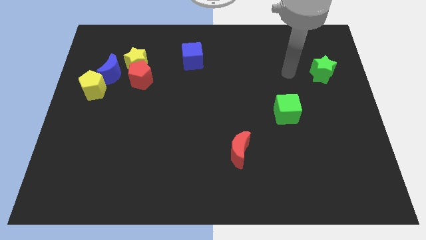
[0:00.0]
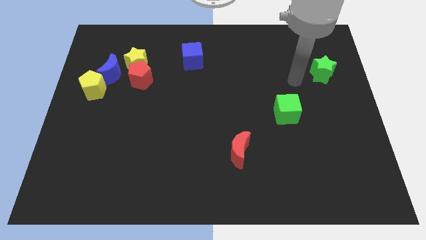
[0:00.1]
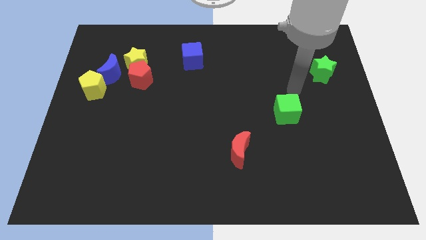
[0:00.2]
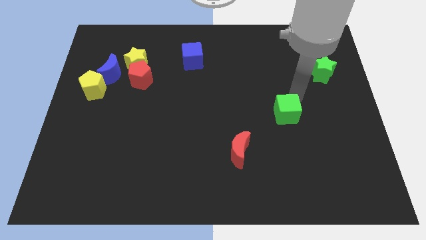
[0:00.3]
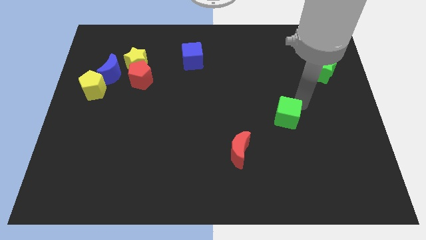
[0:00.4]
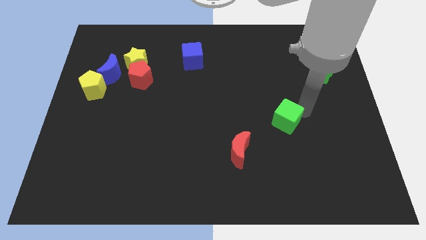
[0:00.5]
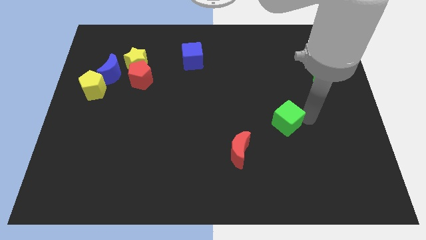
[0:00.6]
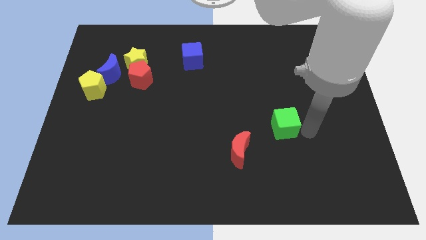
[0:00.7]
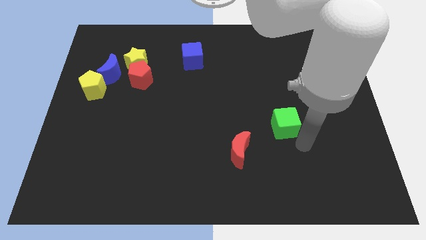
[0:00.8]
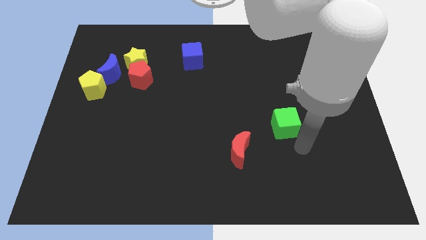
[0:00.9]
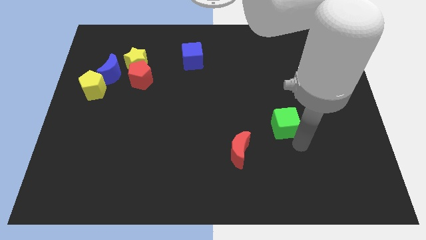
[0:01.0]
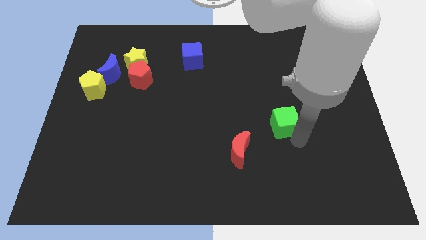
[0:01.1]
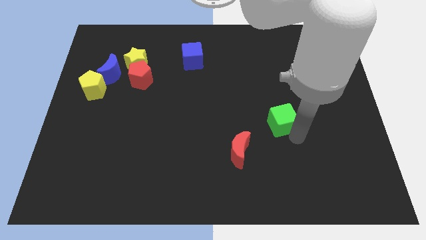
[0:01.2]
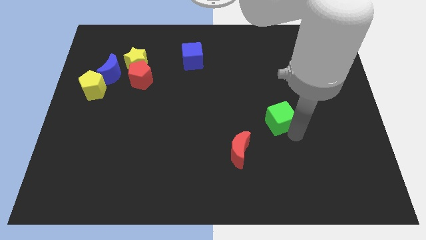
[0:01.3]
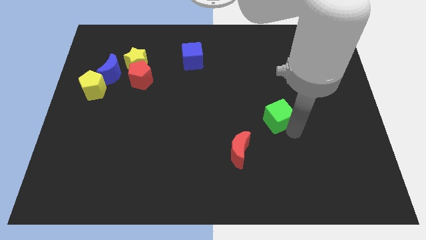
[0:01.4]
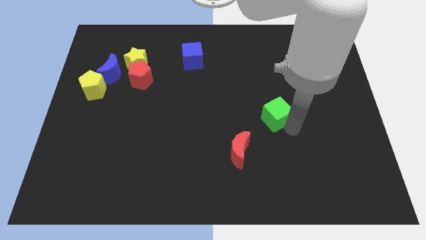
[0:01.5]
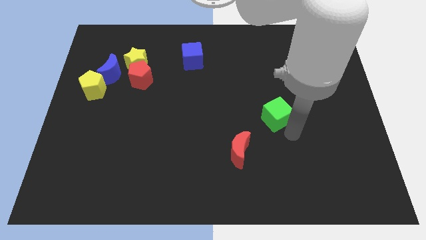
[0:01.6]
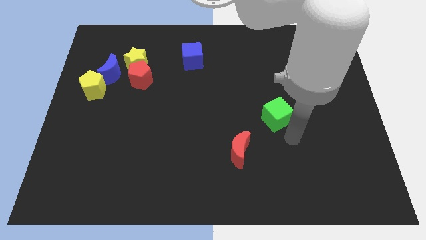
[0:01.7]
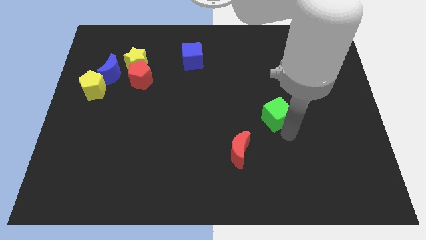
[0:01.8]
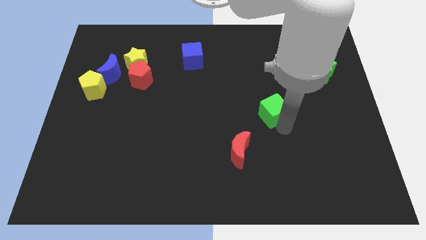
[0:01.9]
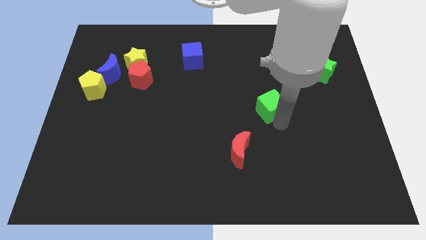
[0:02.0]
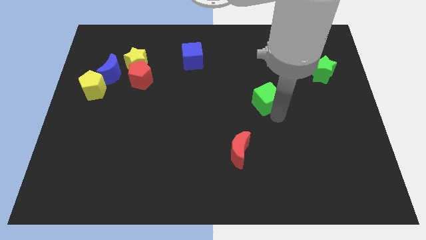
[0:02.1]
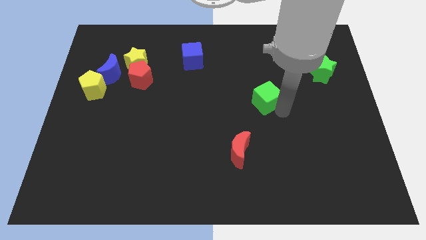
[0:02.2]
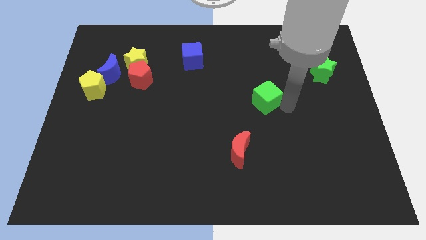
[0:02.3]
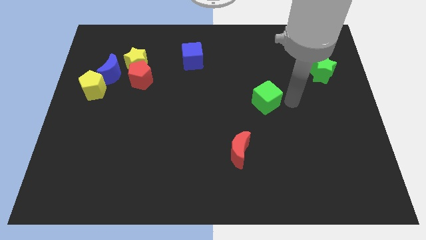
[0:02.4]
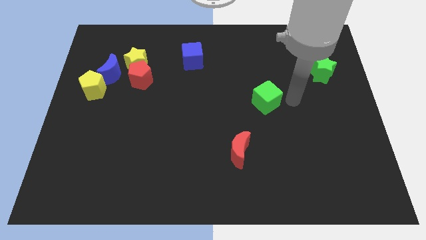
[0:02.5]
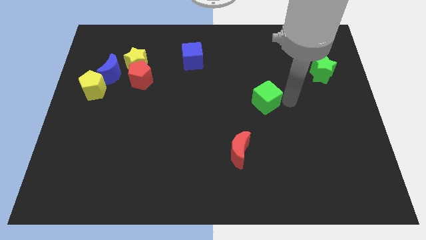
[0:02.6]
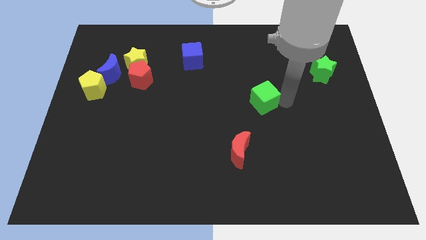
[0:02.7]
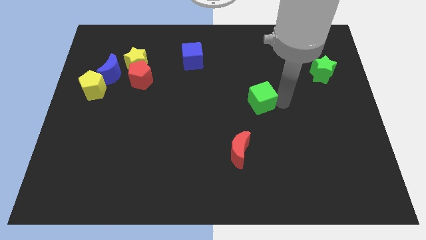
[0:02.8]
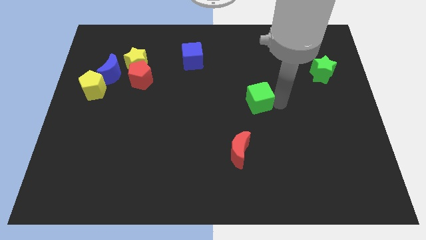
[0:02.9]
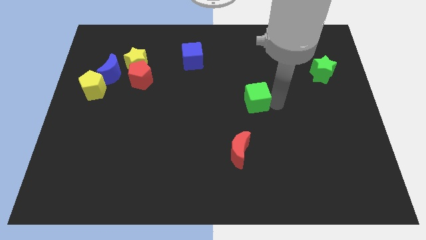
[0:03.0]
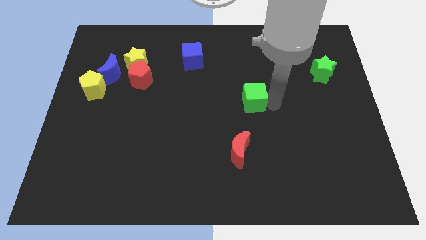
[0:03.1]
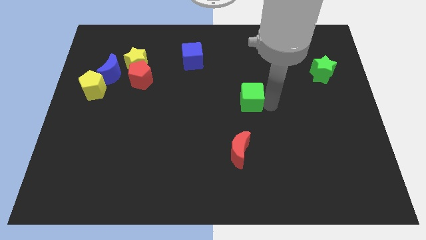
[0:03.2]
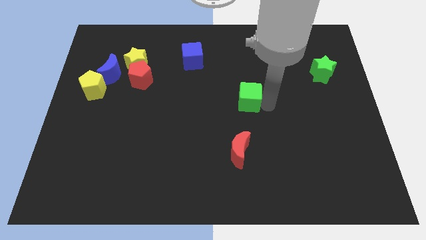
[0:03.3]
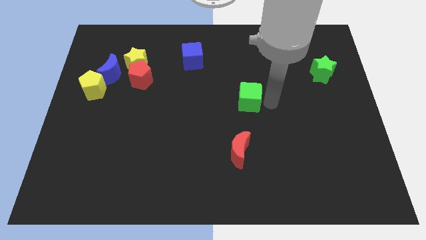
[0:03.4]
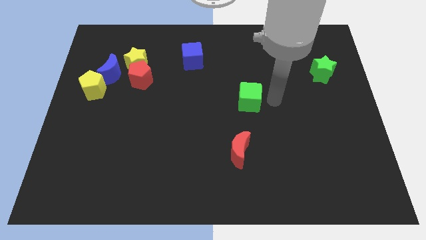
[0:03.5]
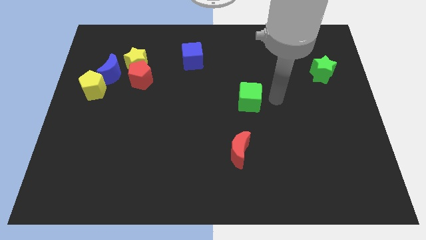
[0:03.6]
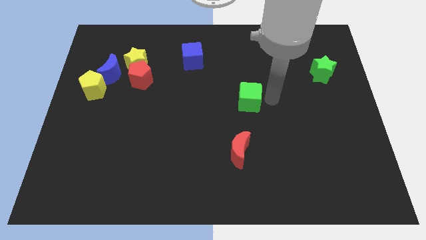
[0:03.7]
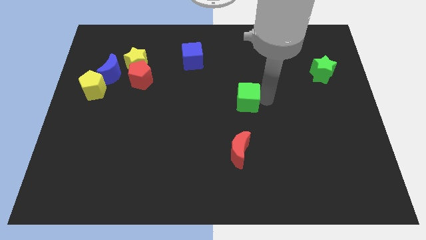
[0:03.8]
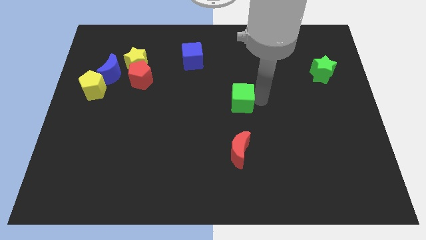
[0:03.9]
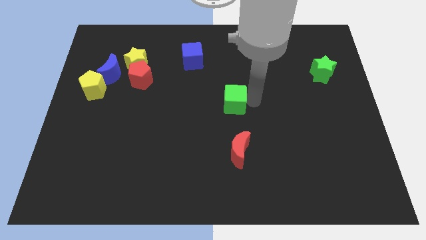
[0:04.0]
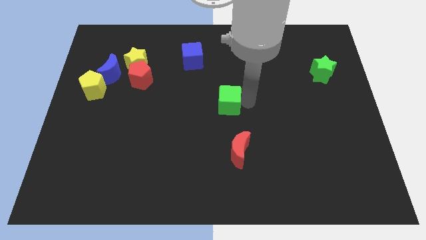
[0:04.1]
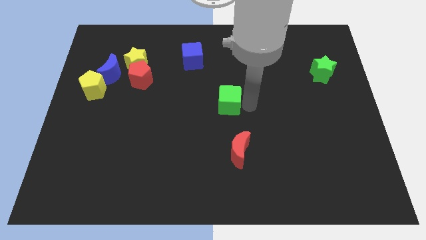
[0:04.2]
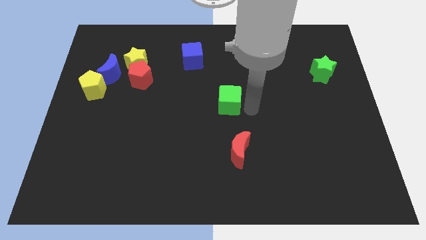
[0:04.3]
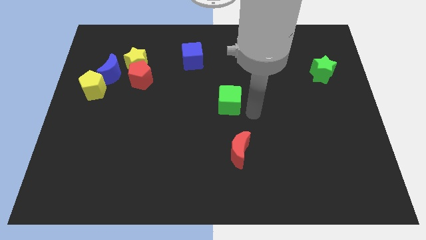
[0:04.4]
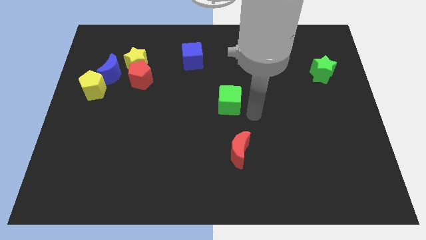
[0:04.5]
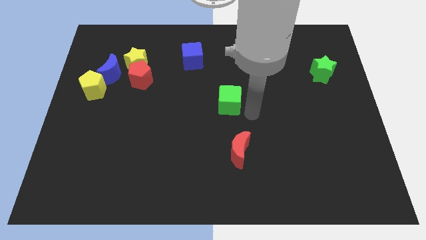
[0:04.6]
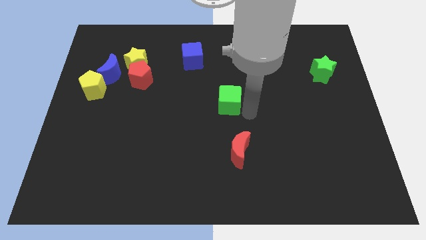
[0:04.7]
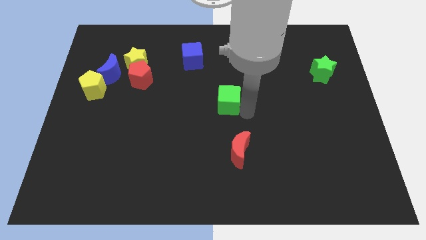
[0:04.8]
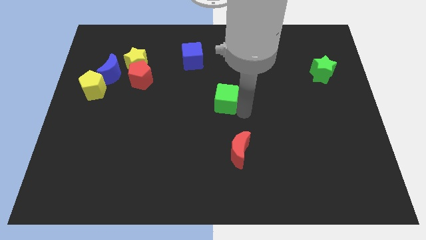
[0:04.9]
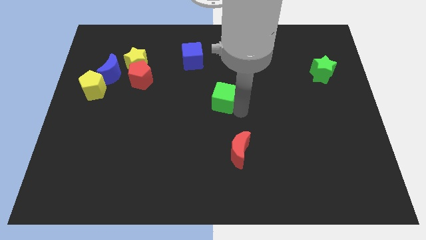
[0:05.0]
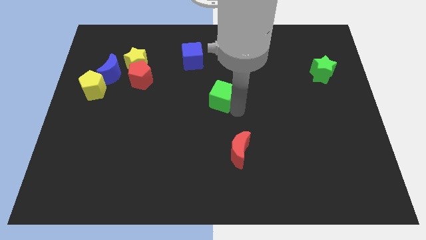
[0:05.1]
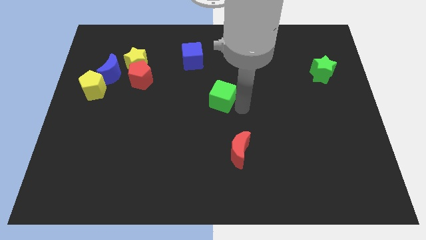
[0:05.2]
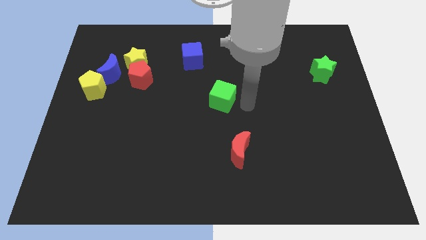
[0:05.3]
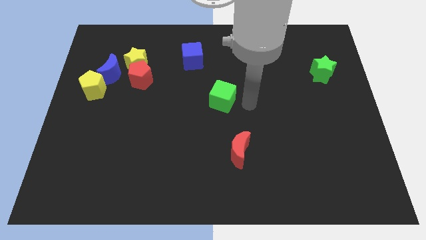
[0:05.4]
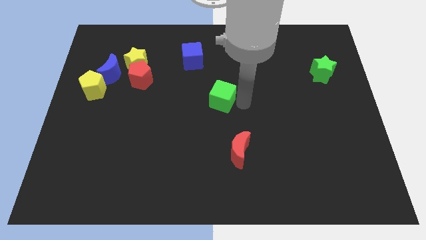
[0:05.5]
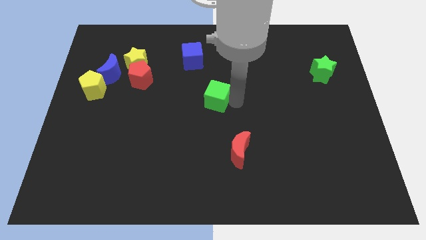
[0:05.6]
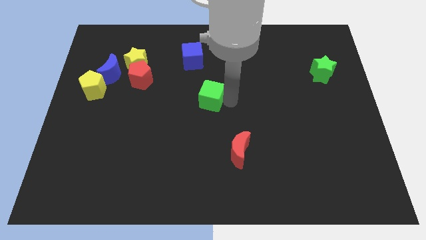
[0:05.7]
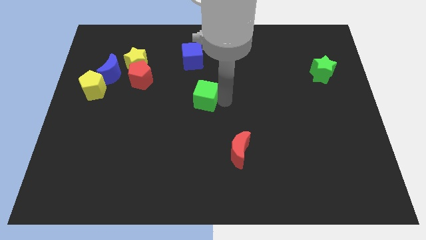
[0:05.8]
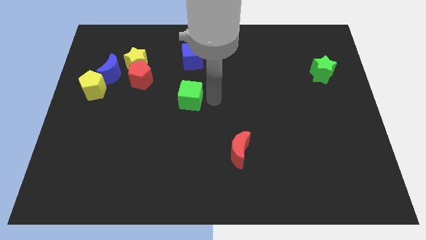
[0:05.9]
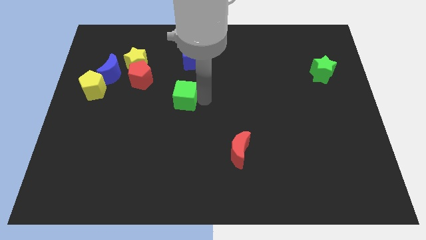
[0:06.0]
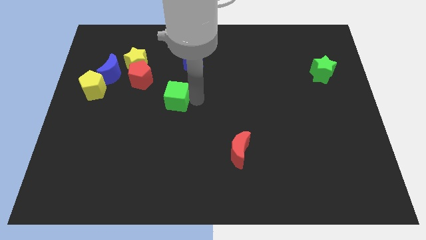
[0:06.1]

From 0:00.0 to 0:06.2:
put the green cube to the bottom right side of the red pentagon

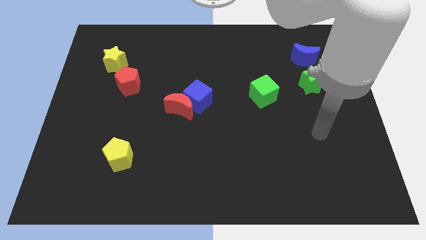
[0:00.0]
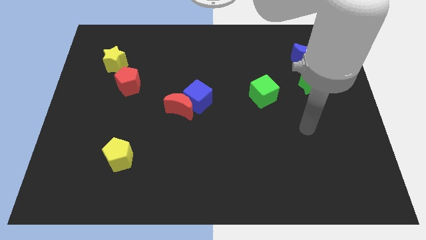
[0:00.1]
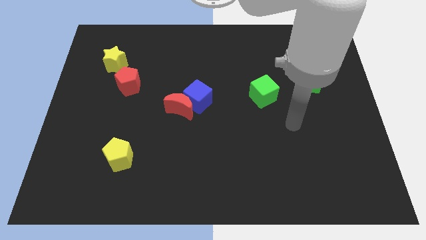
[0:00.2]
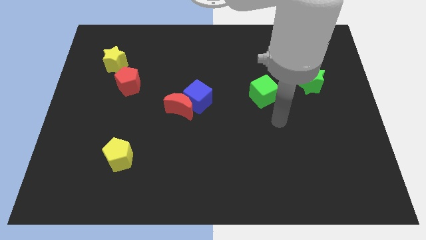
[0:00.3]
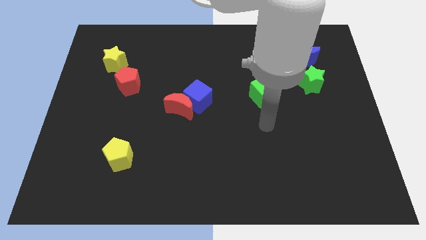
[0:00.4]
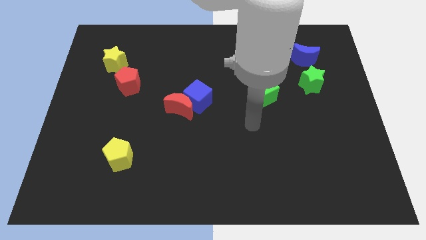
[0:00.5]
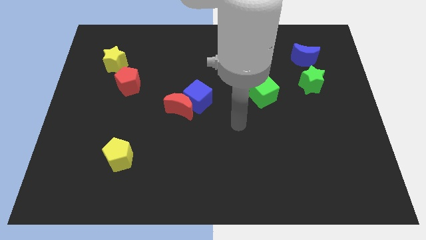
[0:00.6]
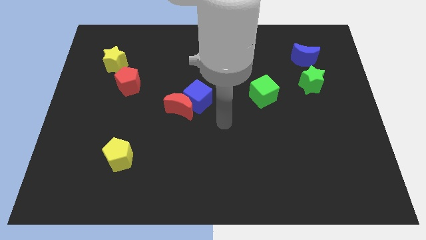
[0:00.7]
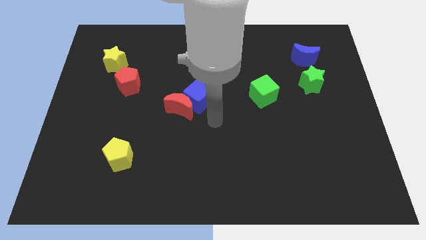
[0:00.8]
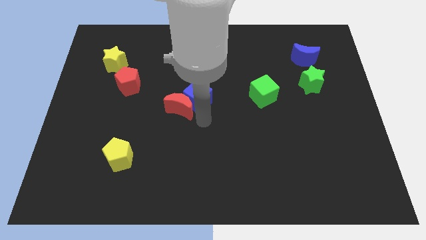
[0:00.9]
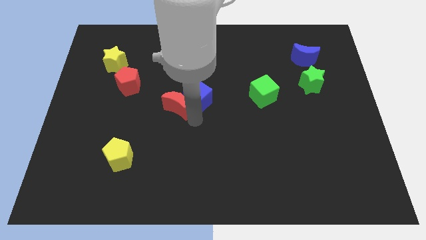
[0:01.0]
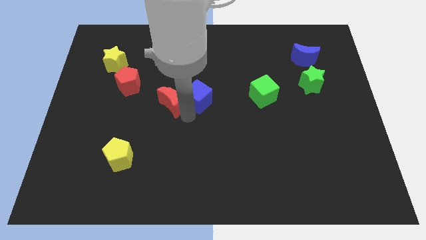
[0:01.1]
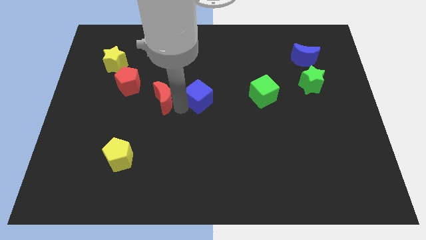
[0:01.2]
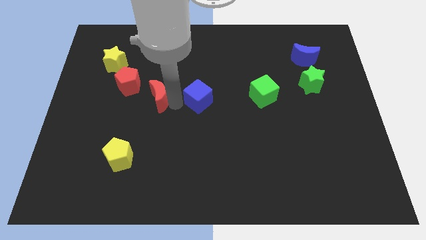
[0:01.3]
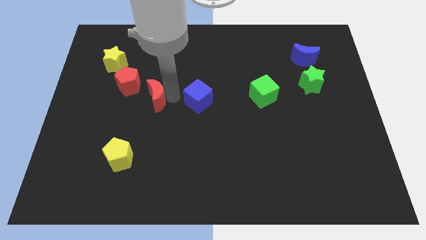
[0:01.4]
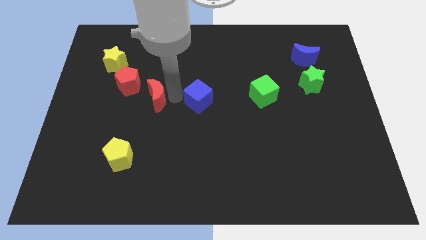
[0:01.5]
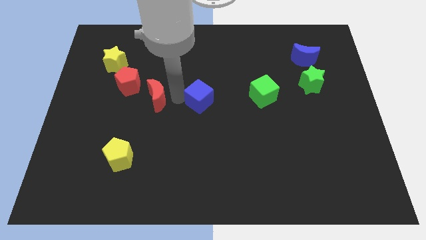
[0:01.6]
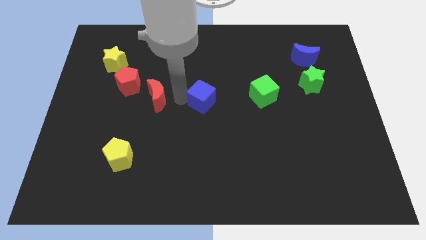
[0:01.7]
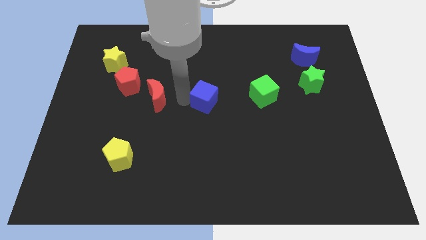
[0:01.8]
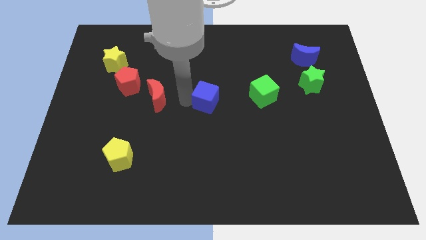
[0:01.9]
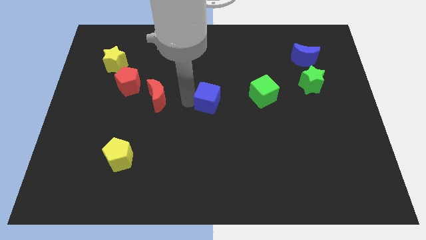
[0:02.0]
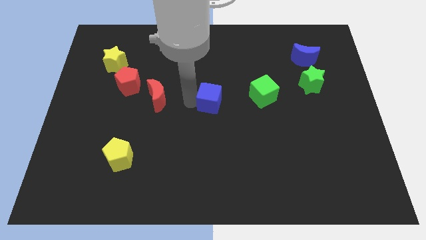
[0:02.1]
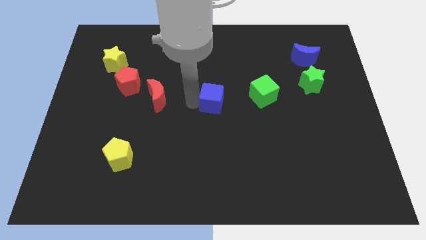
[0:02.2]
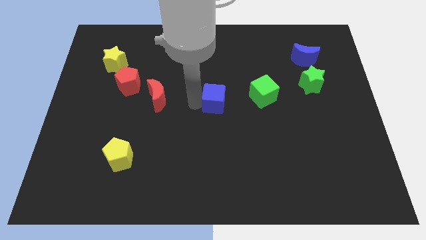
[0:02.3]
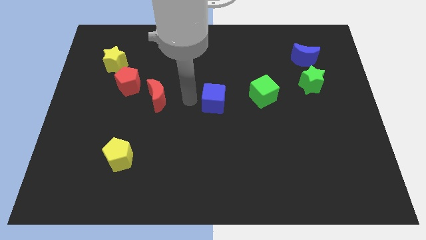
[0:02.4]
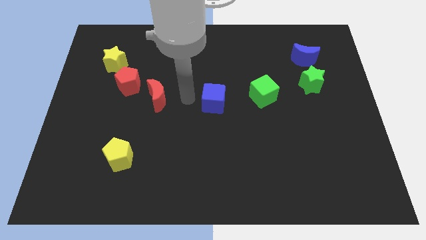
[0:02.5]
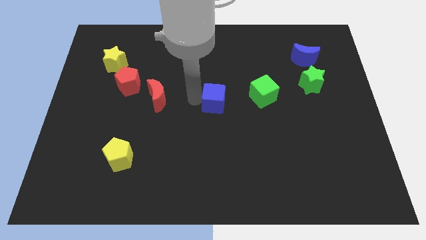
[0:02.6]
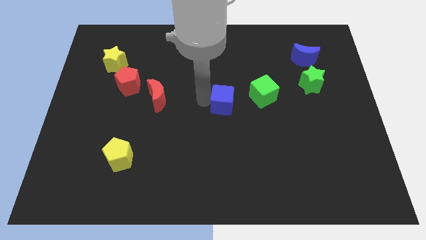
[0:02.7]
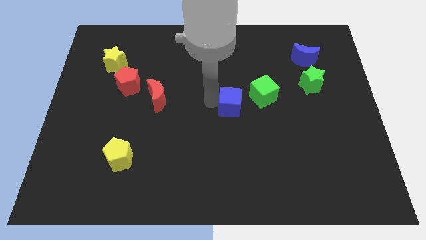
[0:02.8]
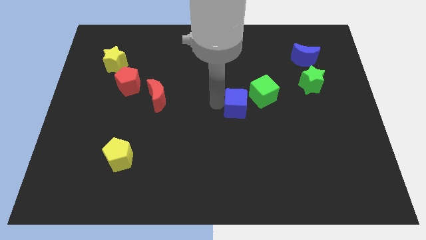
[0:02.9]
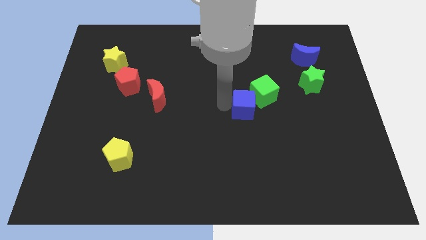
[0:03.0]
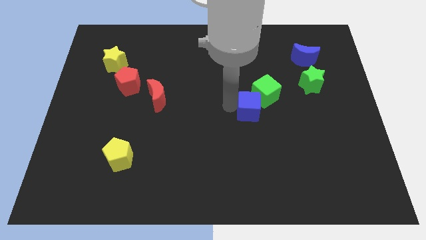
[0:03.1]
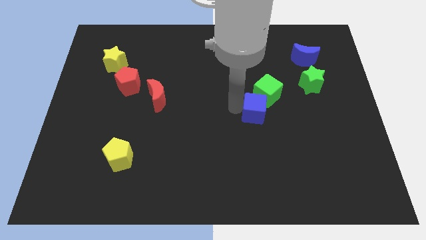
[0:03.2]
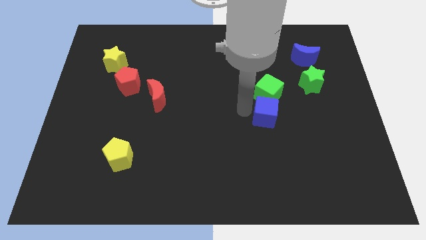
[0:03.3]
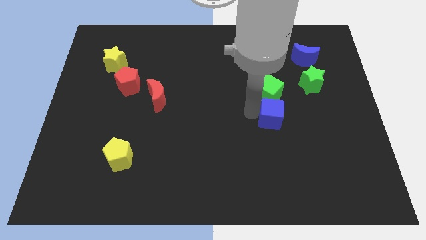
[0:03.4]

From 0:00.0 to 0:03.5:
put the blue cube diagonally down and to the right of the green cube
